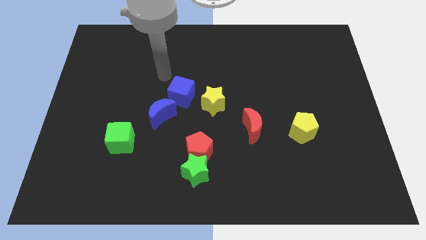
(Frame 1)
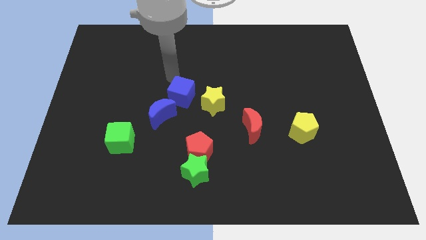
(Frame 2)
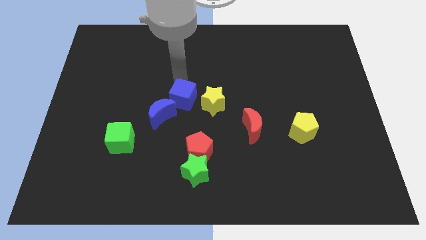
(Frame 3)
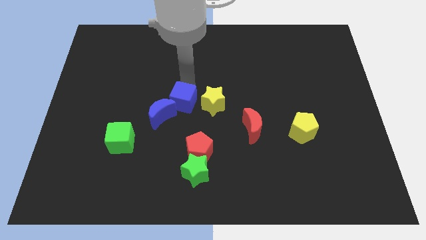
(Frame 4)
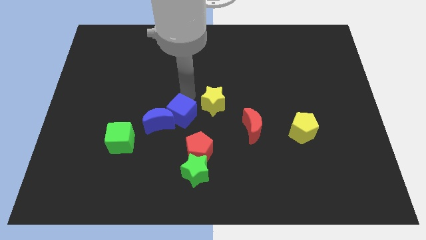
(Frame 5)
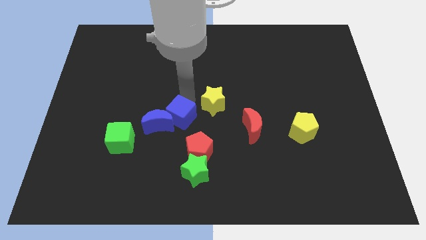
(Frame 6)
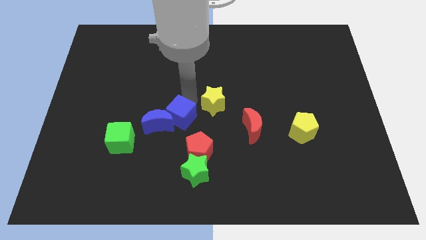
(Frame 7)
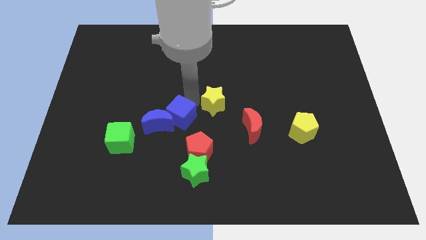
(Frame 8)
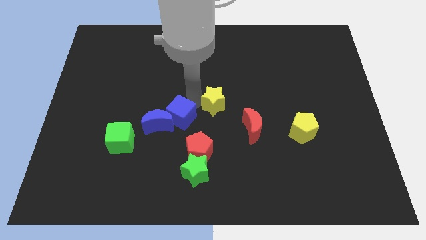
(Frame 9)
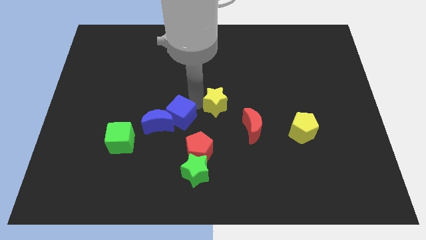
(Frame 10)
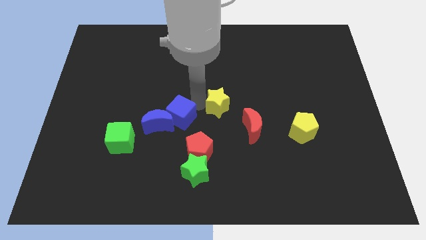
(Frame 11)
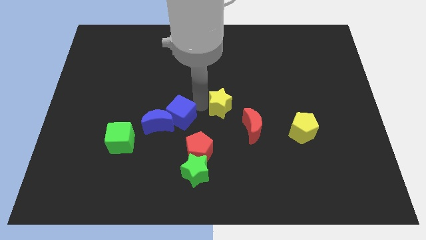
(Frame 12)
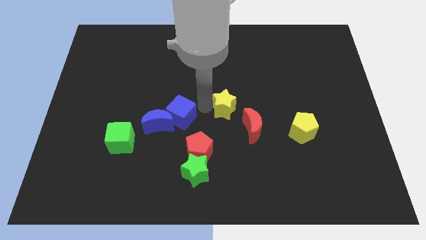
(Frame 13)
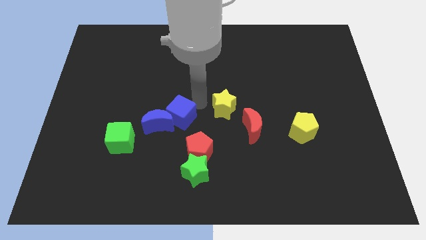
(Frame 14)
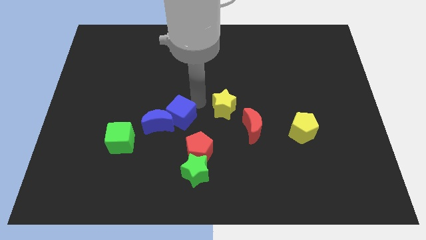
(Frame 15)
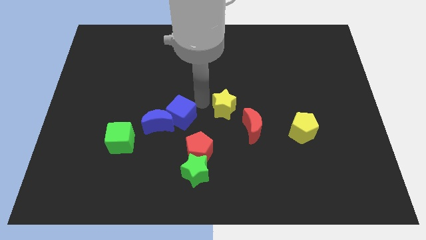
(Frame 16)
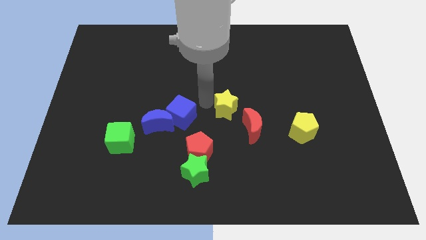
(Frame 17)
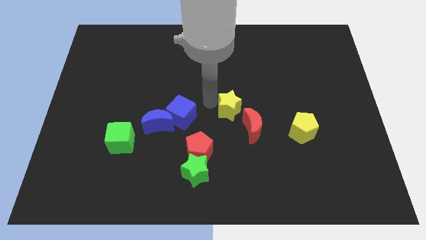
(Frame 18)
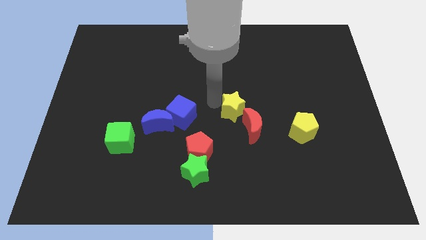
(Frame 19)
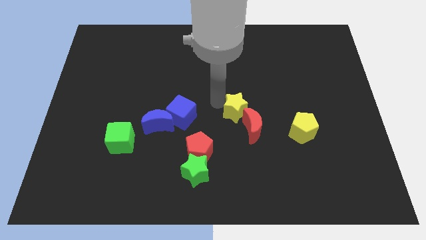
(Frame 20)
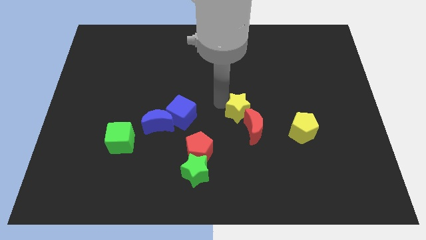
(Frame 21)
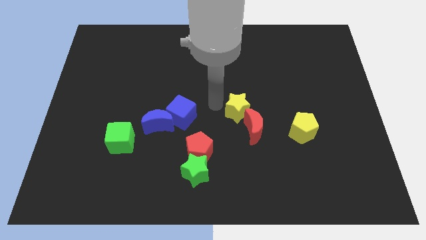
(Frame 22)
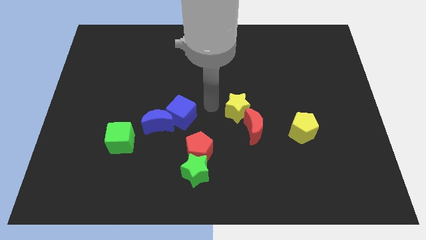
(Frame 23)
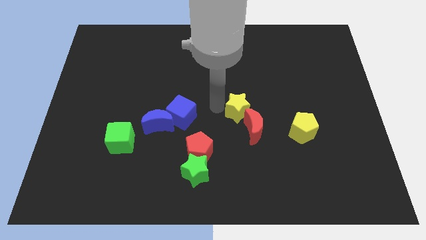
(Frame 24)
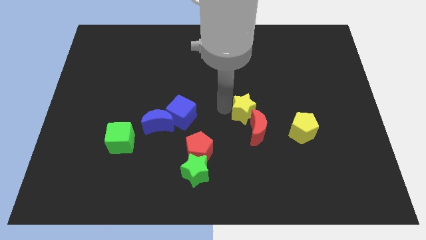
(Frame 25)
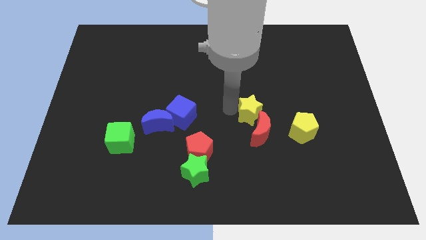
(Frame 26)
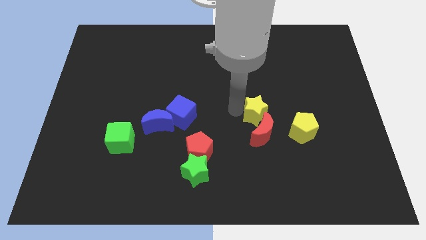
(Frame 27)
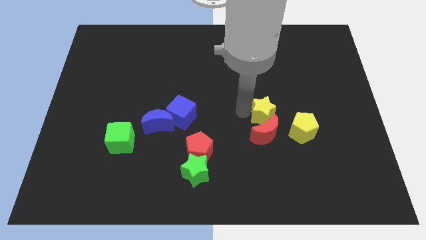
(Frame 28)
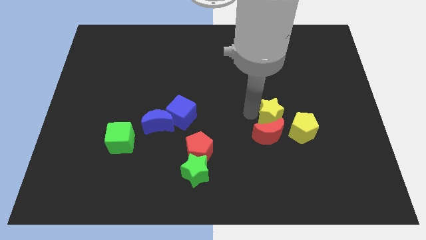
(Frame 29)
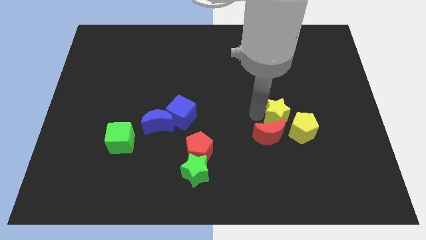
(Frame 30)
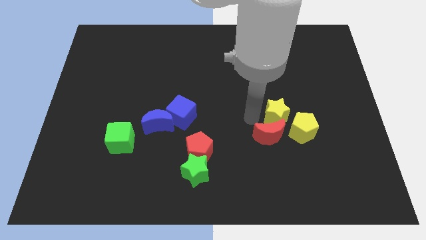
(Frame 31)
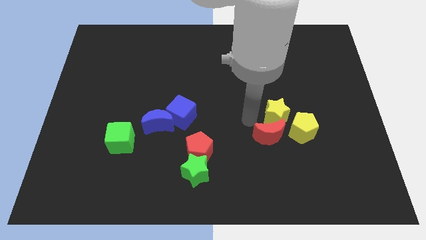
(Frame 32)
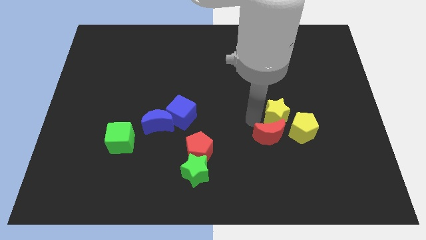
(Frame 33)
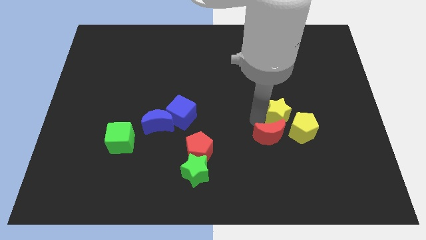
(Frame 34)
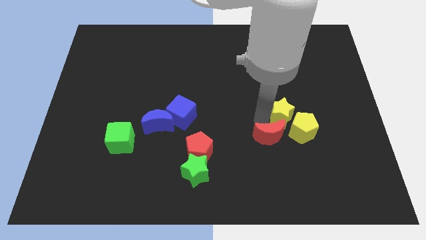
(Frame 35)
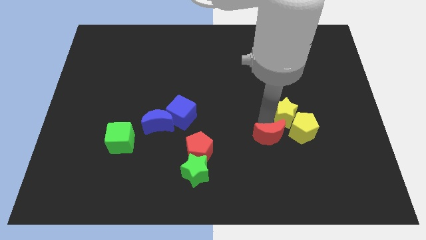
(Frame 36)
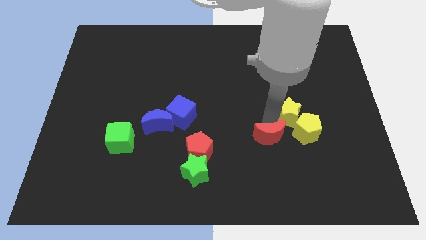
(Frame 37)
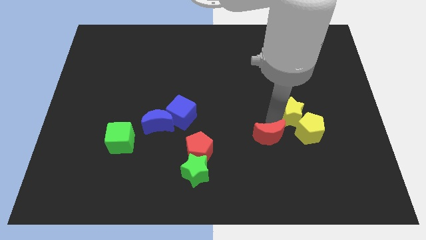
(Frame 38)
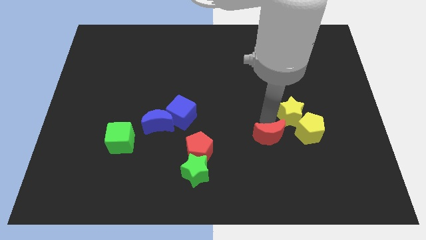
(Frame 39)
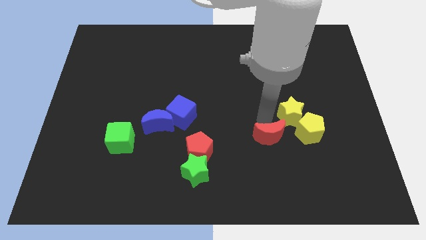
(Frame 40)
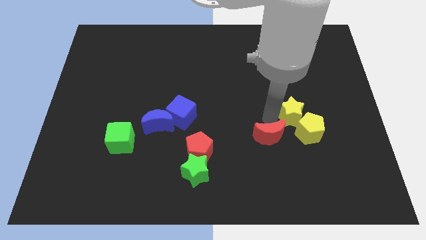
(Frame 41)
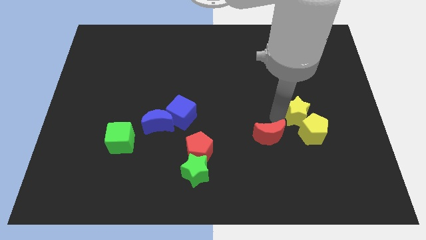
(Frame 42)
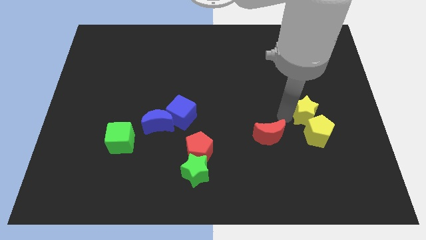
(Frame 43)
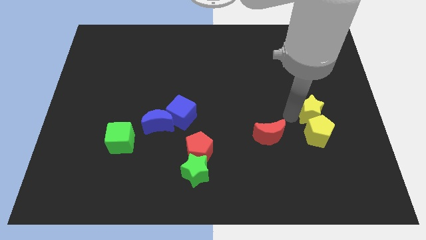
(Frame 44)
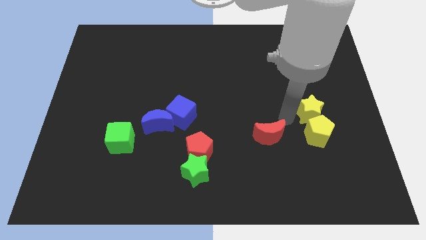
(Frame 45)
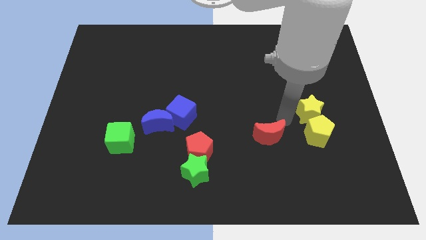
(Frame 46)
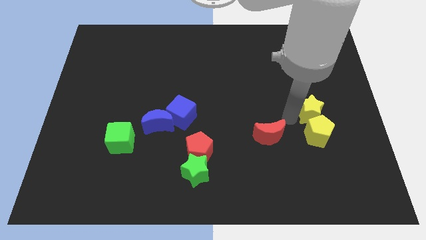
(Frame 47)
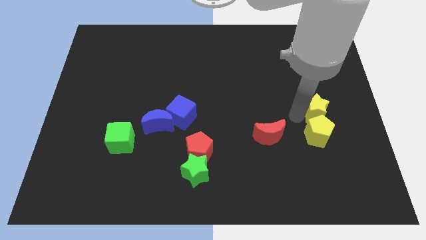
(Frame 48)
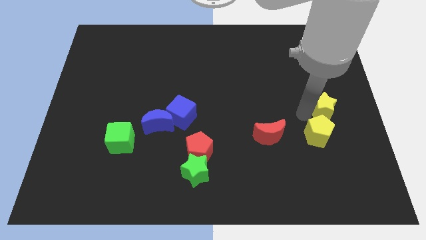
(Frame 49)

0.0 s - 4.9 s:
slide the yellow star to the center right

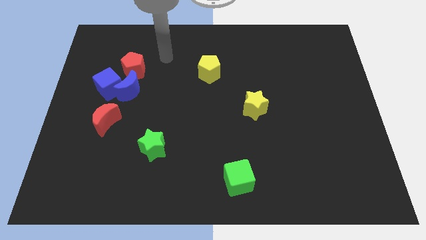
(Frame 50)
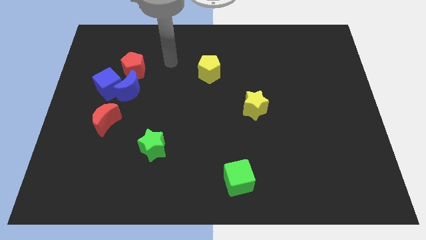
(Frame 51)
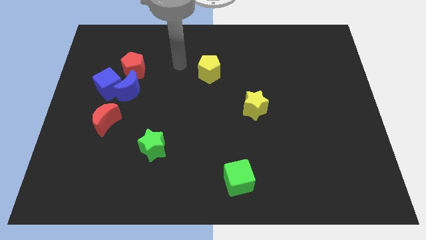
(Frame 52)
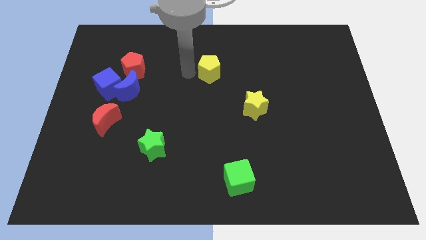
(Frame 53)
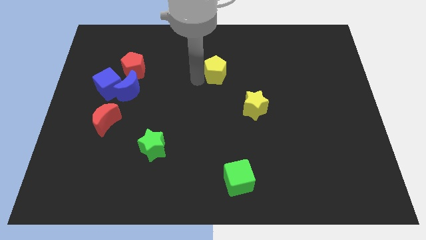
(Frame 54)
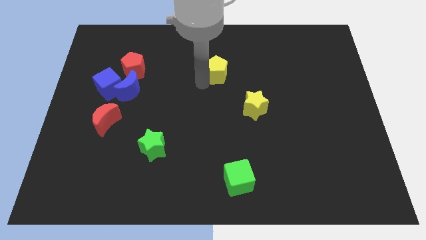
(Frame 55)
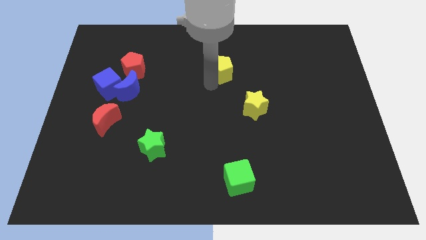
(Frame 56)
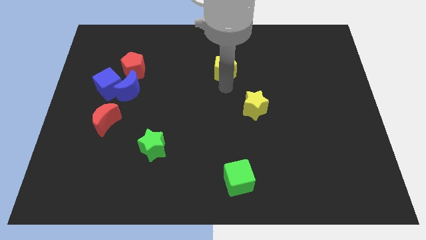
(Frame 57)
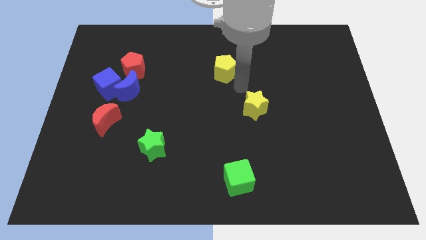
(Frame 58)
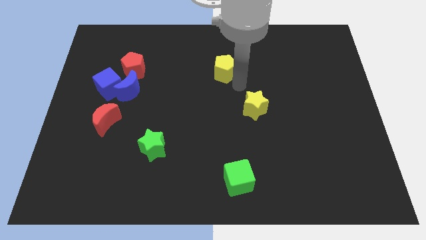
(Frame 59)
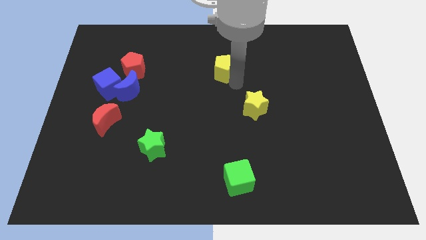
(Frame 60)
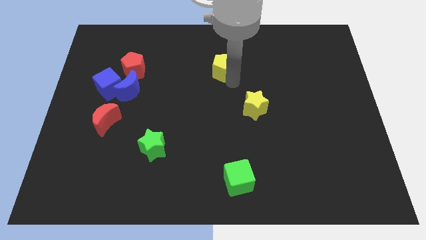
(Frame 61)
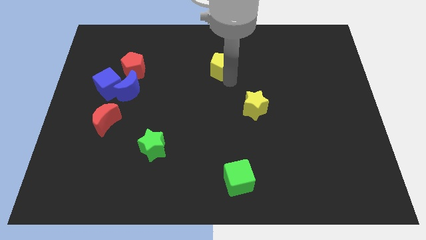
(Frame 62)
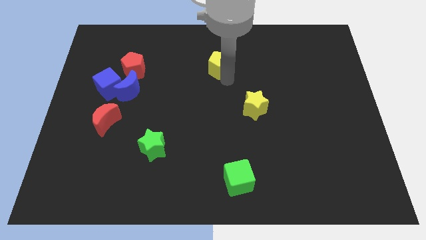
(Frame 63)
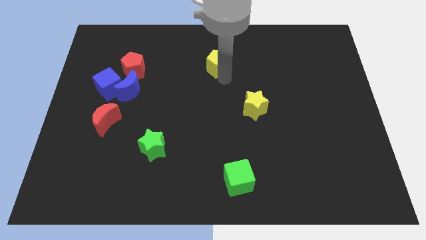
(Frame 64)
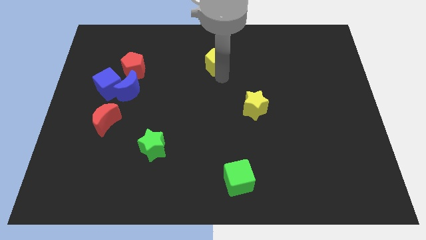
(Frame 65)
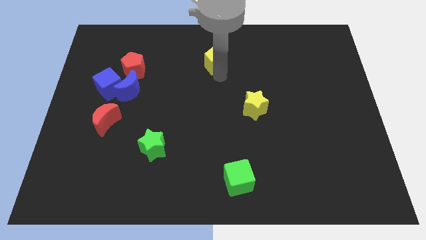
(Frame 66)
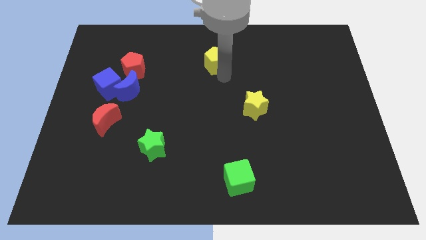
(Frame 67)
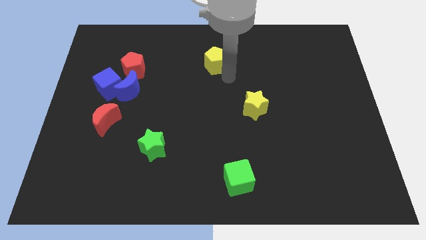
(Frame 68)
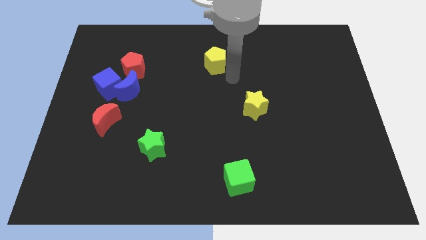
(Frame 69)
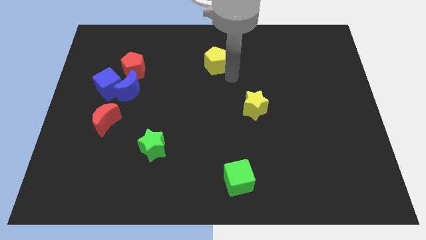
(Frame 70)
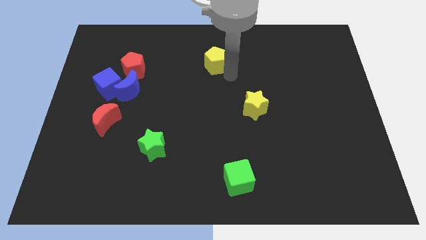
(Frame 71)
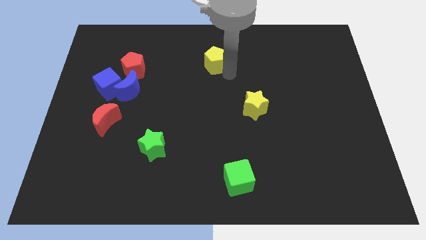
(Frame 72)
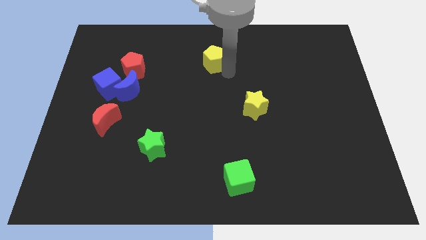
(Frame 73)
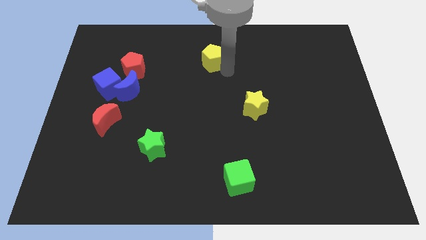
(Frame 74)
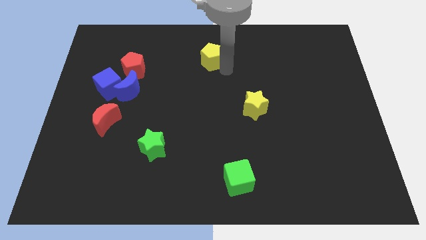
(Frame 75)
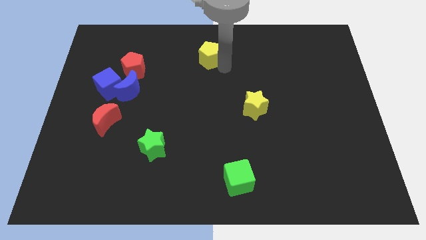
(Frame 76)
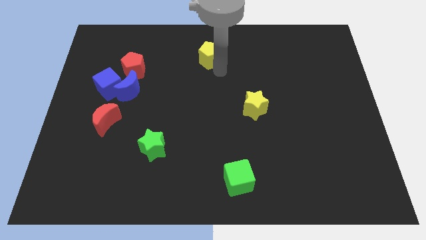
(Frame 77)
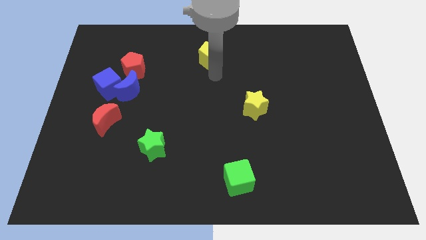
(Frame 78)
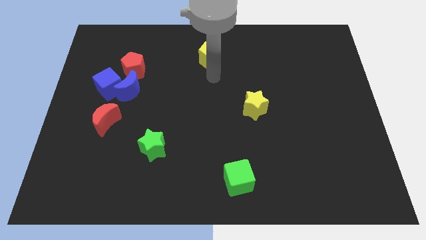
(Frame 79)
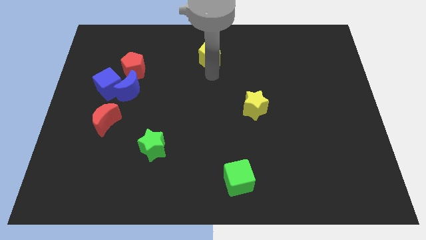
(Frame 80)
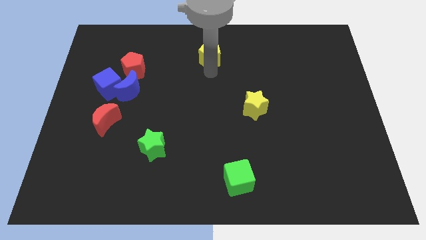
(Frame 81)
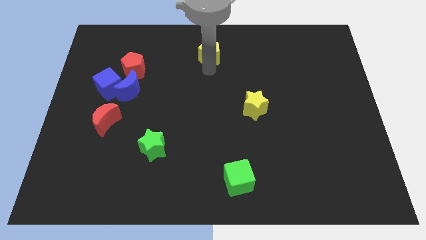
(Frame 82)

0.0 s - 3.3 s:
slide the yellow pentagon to the top side
